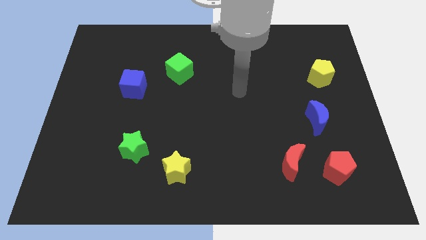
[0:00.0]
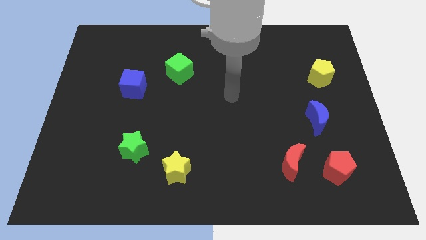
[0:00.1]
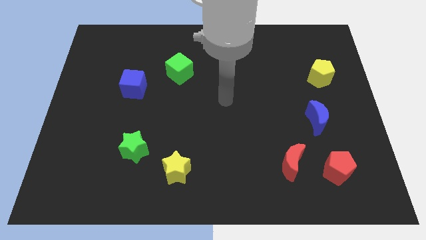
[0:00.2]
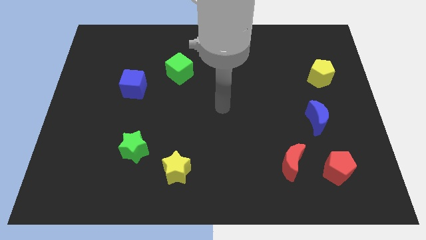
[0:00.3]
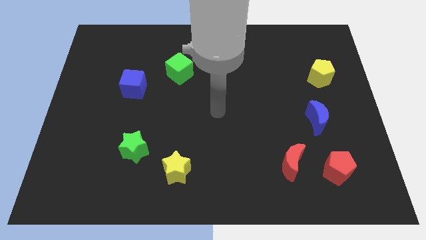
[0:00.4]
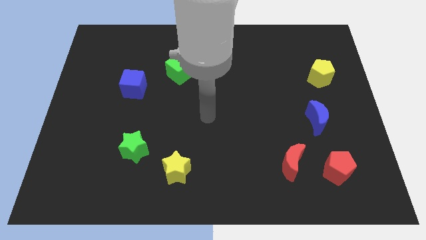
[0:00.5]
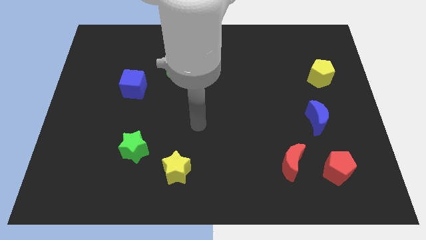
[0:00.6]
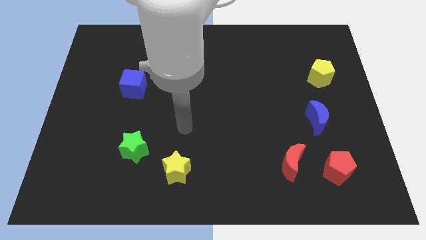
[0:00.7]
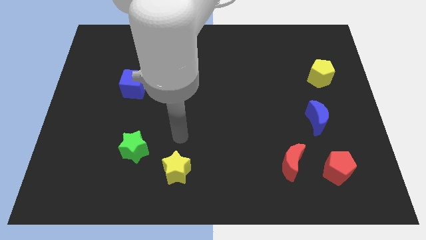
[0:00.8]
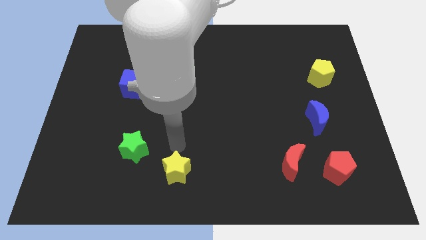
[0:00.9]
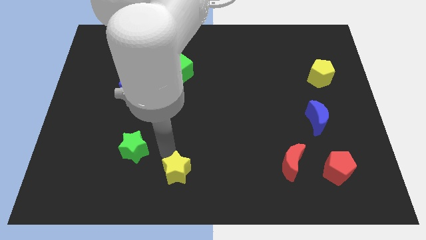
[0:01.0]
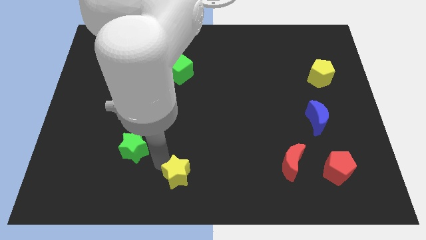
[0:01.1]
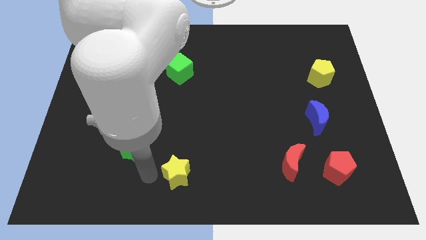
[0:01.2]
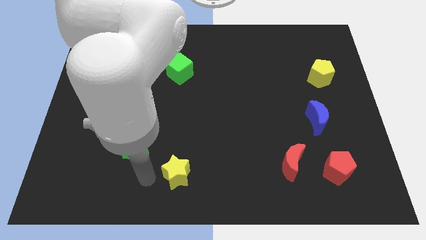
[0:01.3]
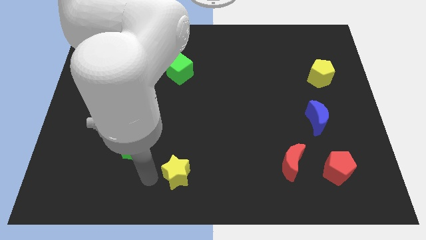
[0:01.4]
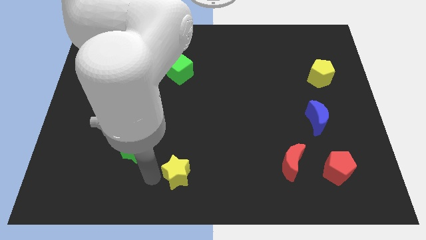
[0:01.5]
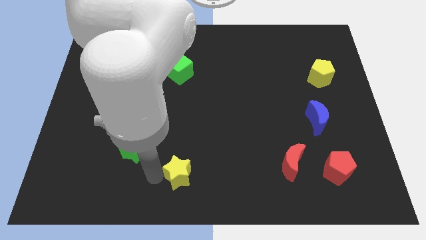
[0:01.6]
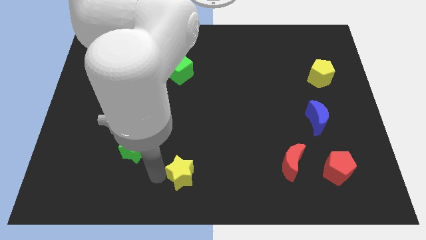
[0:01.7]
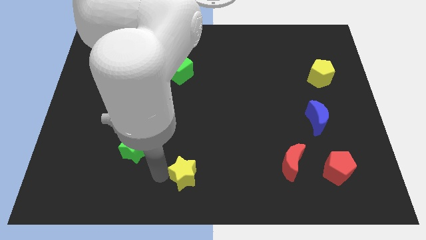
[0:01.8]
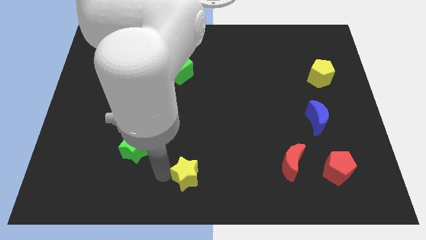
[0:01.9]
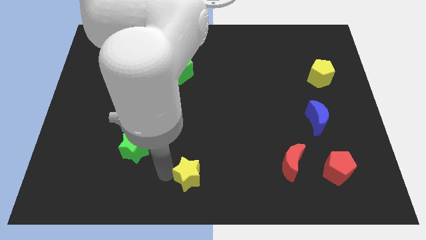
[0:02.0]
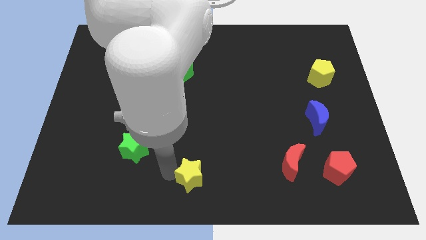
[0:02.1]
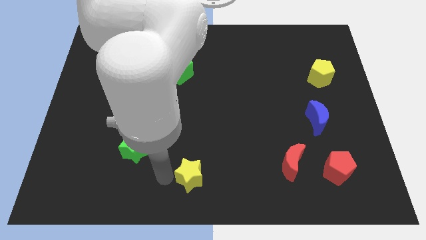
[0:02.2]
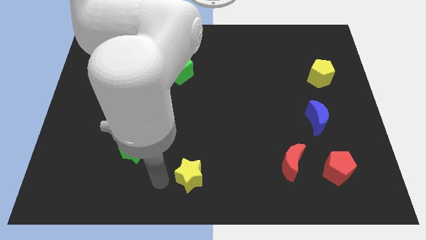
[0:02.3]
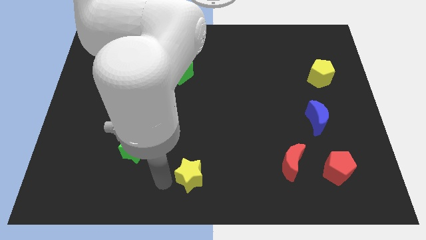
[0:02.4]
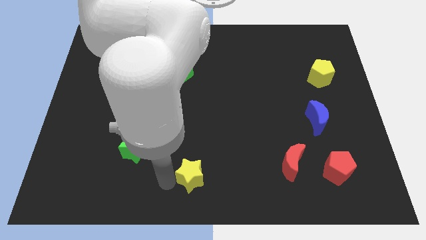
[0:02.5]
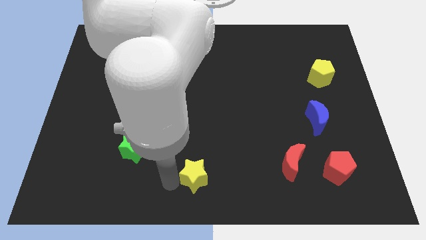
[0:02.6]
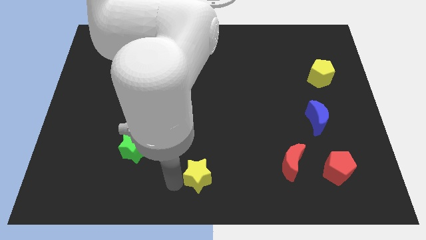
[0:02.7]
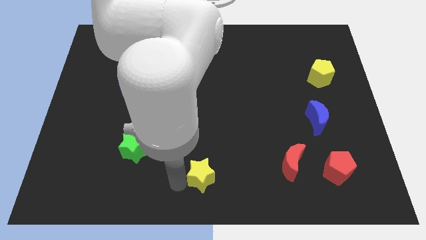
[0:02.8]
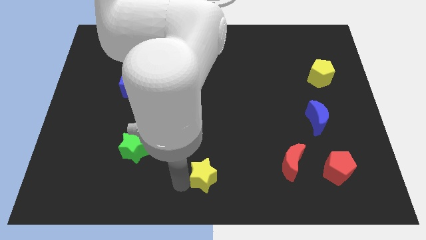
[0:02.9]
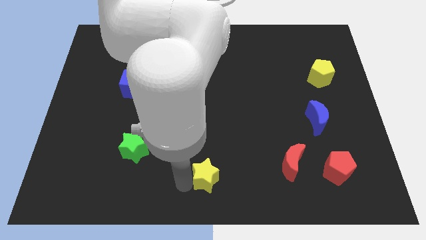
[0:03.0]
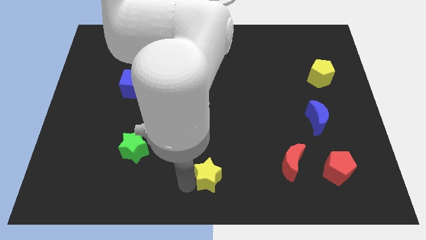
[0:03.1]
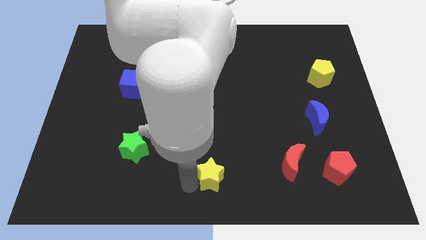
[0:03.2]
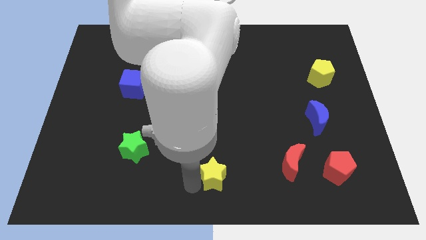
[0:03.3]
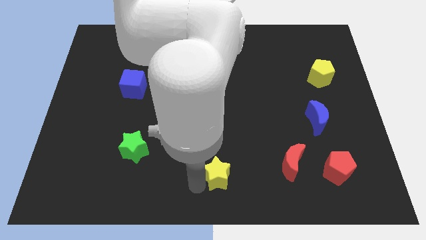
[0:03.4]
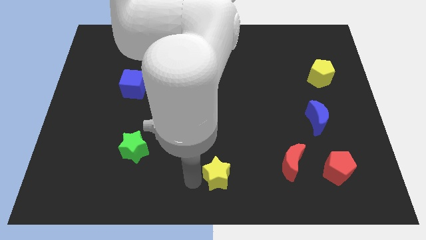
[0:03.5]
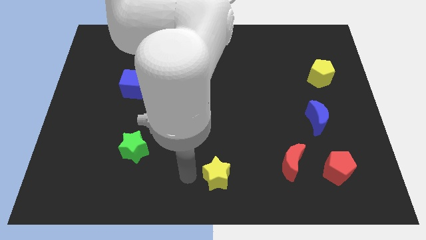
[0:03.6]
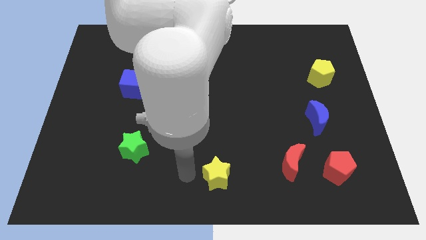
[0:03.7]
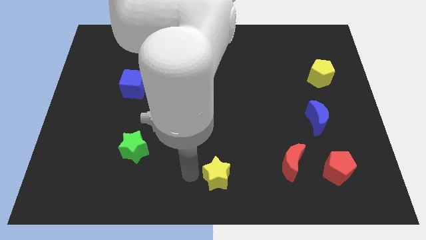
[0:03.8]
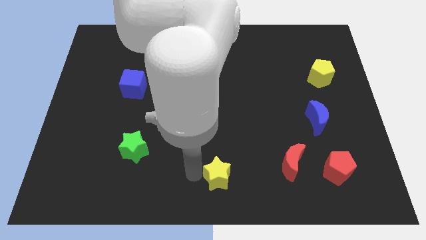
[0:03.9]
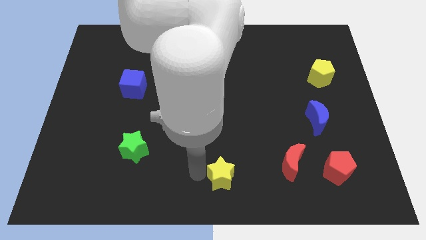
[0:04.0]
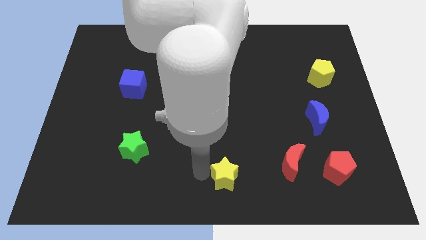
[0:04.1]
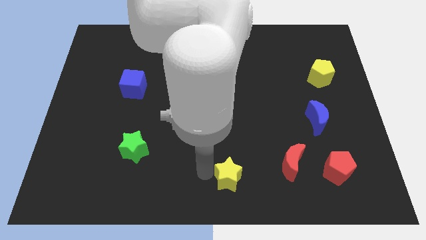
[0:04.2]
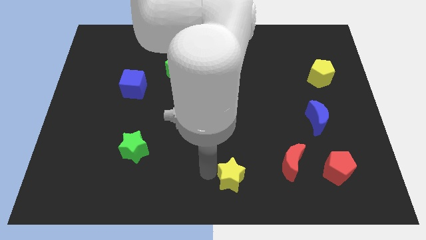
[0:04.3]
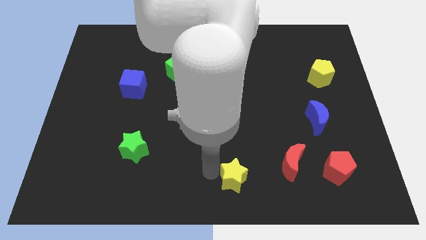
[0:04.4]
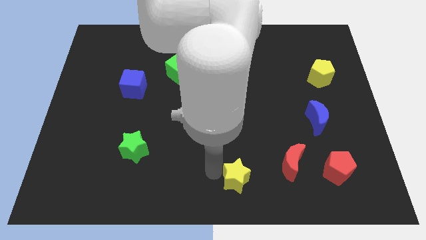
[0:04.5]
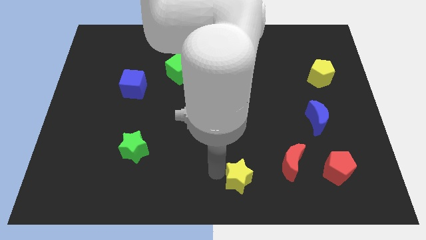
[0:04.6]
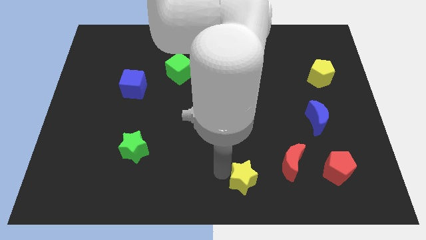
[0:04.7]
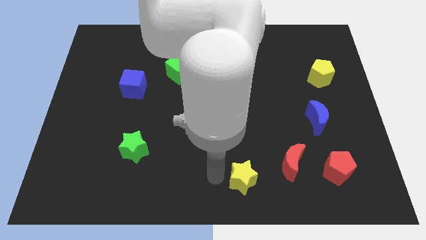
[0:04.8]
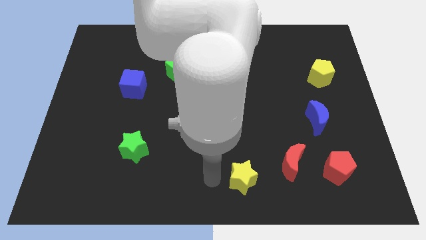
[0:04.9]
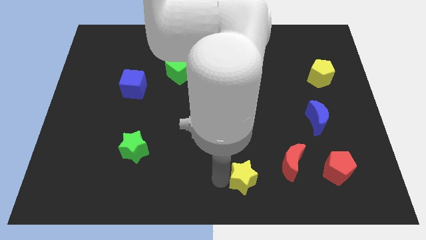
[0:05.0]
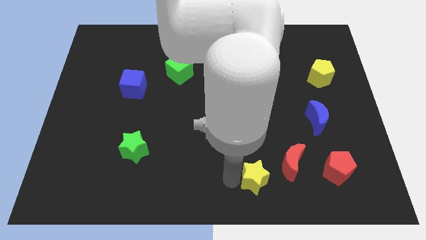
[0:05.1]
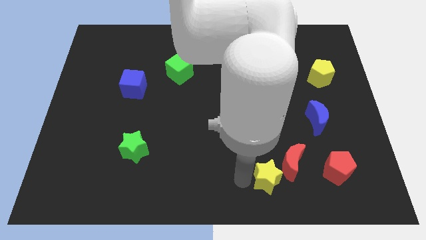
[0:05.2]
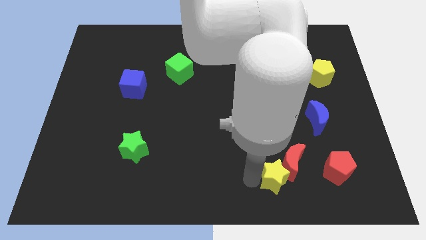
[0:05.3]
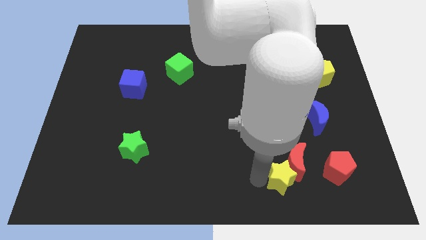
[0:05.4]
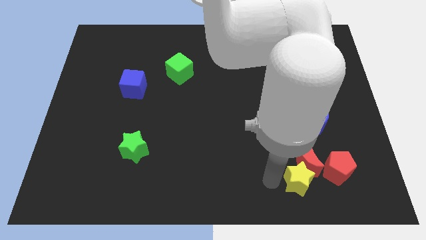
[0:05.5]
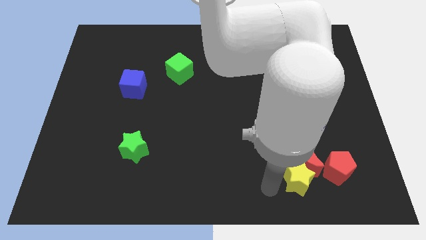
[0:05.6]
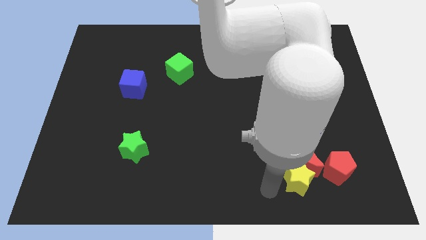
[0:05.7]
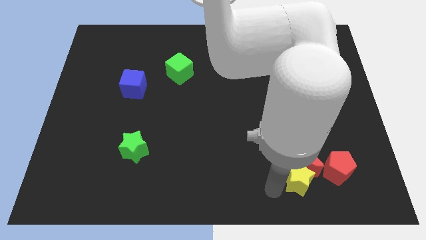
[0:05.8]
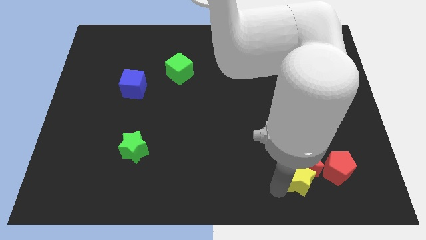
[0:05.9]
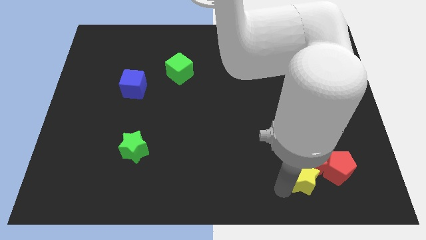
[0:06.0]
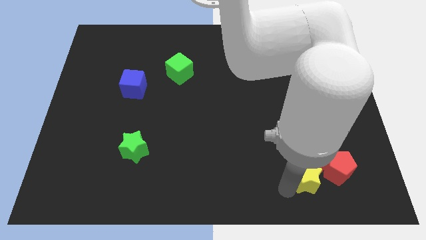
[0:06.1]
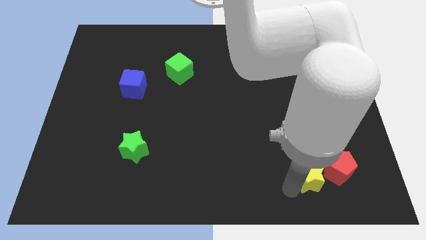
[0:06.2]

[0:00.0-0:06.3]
slide the yellow star towards the red pentagon

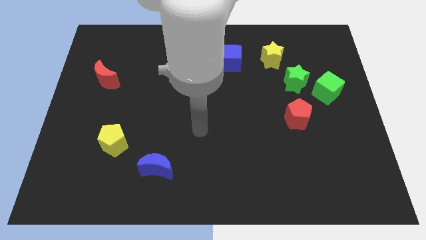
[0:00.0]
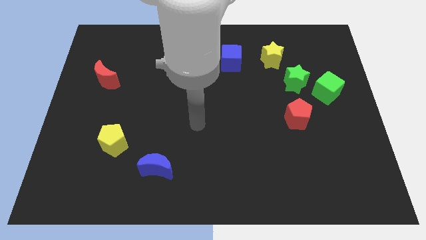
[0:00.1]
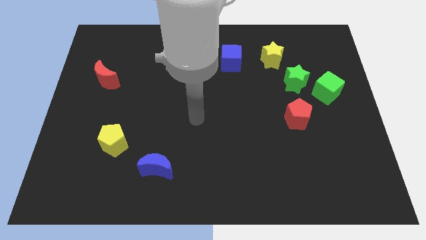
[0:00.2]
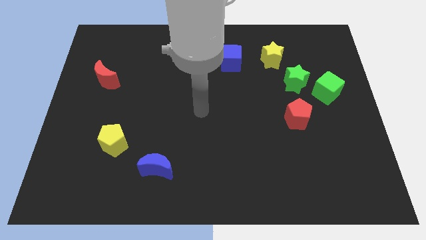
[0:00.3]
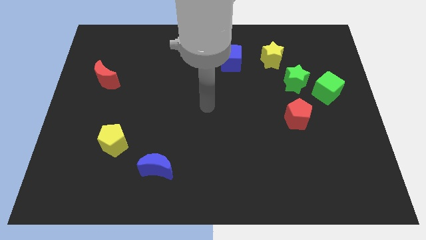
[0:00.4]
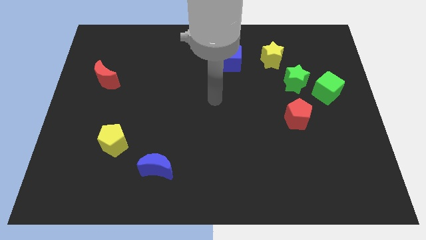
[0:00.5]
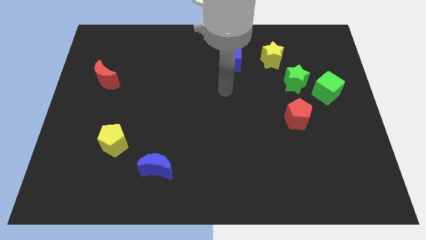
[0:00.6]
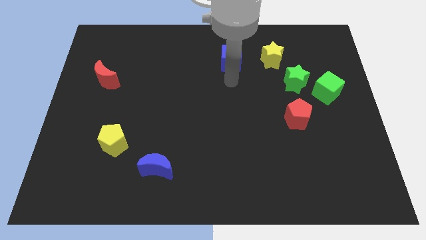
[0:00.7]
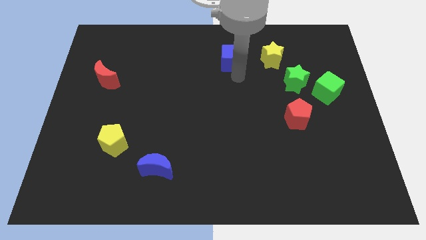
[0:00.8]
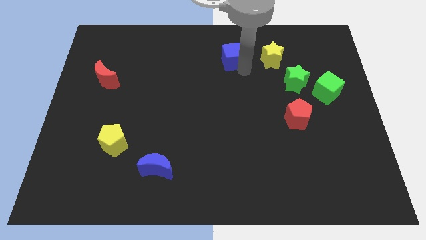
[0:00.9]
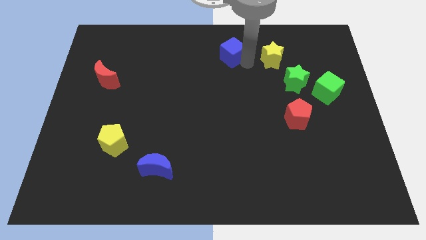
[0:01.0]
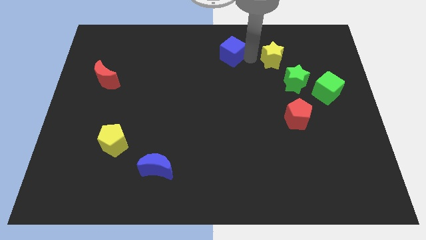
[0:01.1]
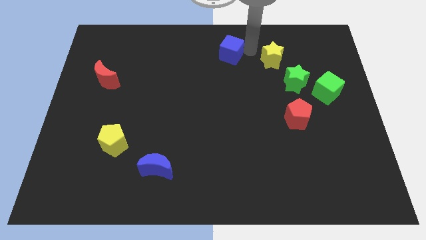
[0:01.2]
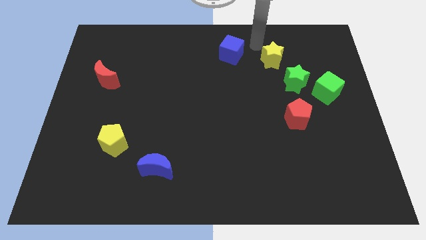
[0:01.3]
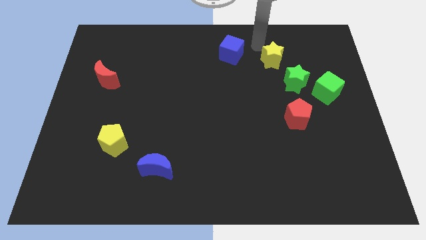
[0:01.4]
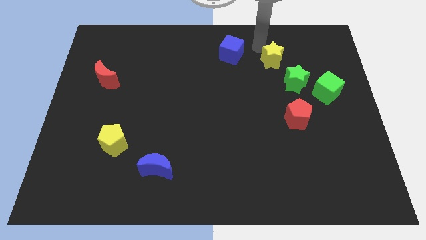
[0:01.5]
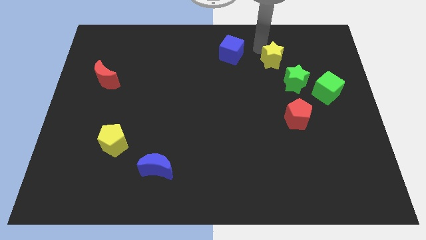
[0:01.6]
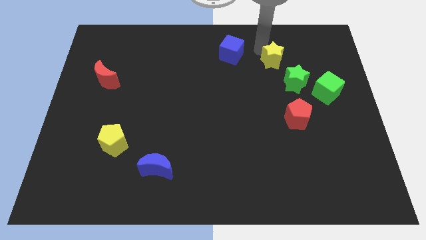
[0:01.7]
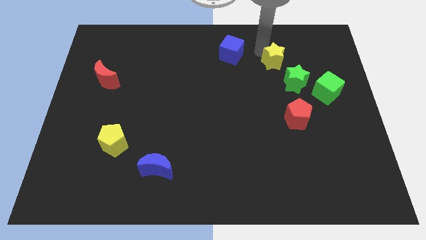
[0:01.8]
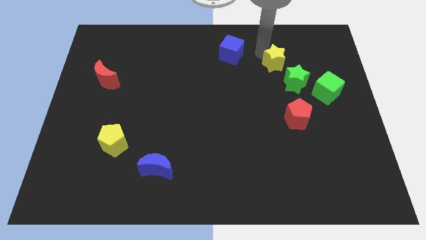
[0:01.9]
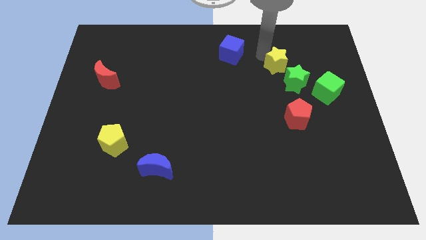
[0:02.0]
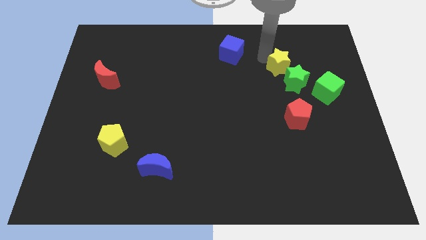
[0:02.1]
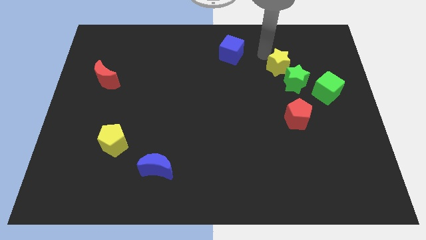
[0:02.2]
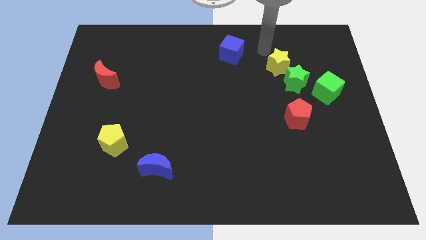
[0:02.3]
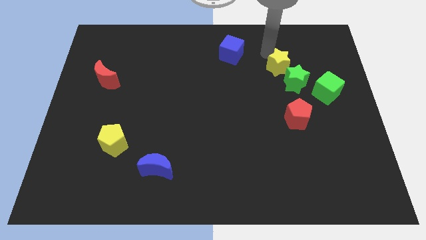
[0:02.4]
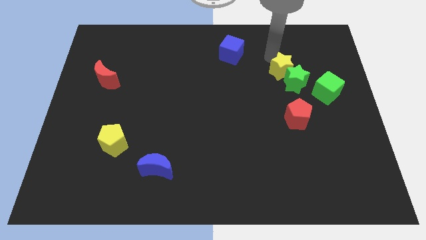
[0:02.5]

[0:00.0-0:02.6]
push the yellow star close to the green star
